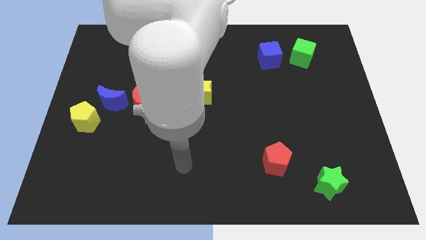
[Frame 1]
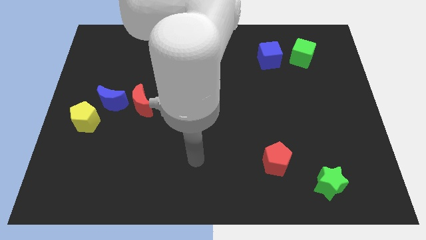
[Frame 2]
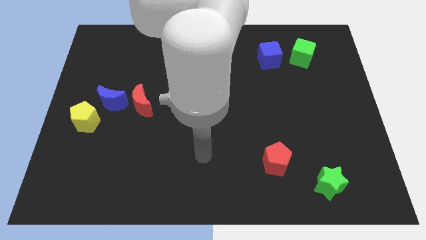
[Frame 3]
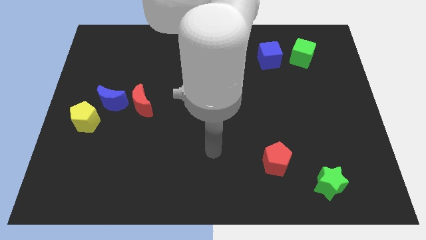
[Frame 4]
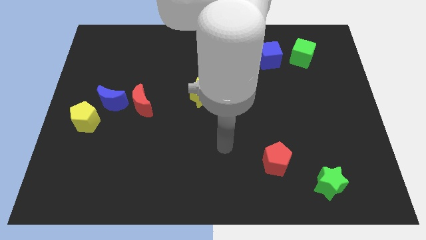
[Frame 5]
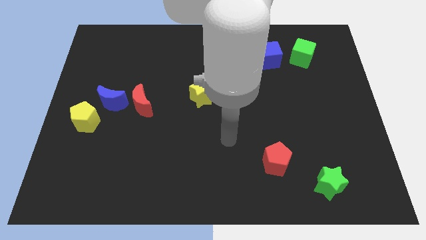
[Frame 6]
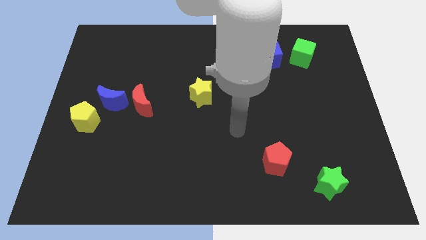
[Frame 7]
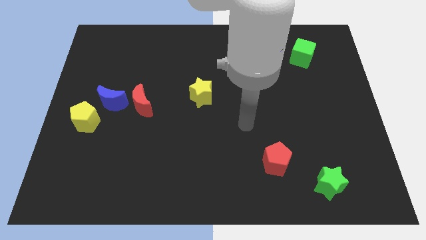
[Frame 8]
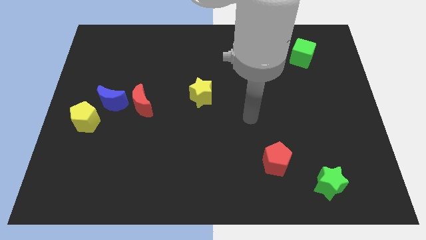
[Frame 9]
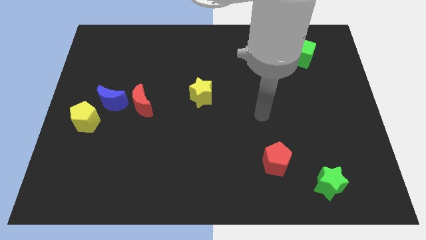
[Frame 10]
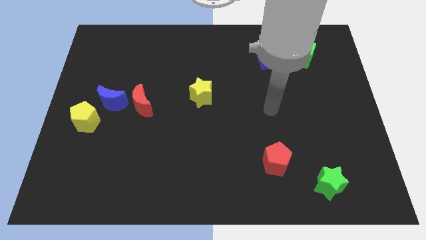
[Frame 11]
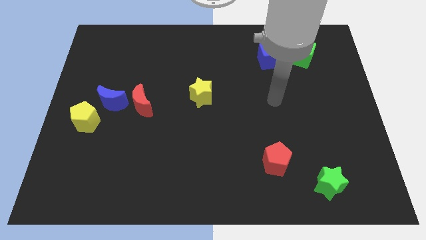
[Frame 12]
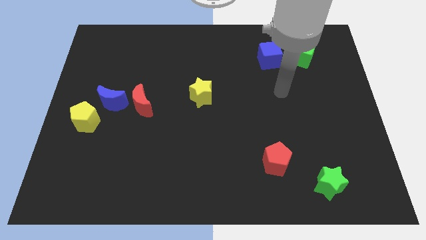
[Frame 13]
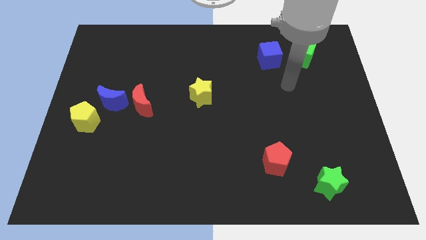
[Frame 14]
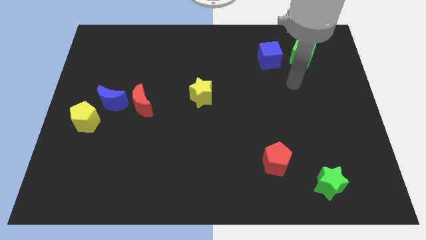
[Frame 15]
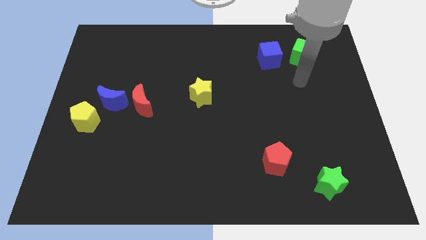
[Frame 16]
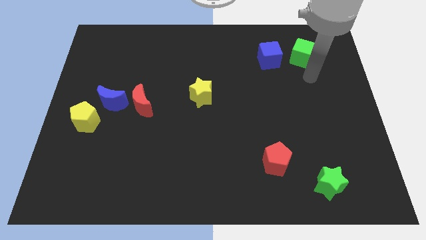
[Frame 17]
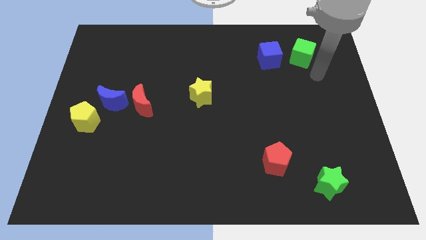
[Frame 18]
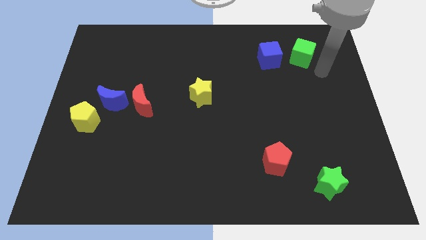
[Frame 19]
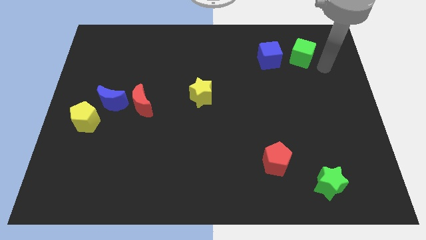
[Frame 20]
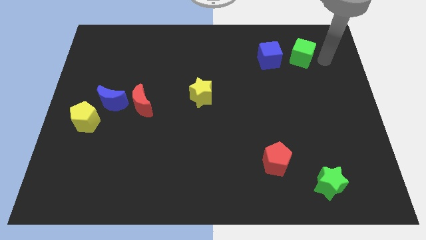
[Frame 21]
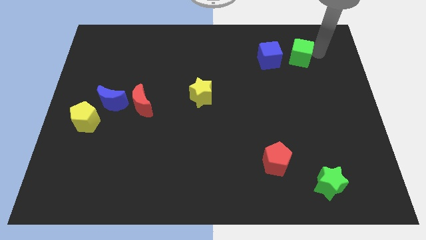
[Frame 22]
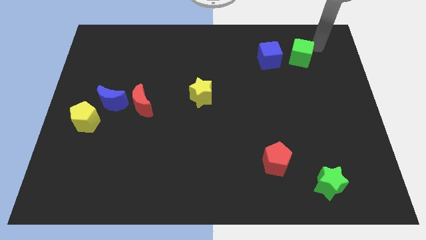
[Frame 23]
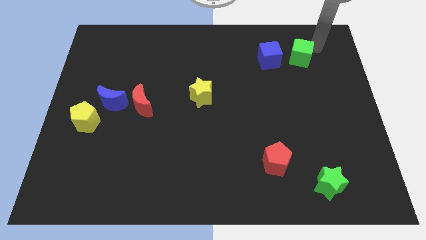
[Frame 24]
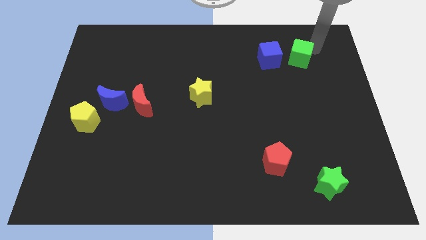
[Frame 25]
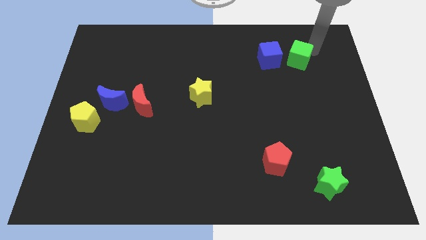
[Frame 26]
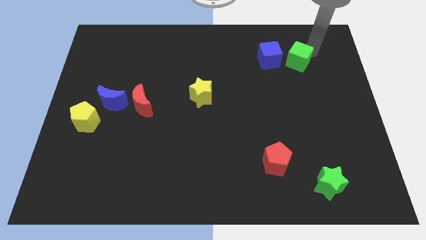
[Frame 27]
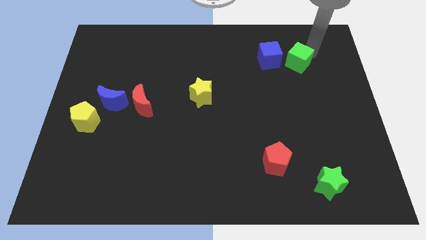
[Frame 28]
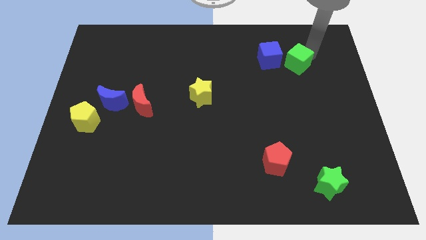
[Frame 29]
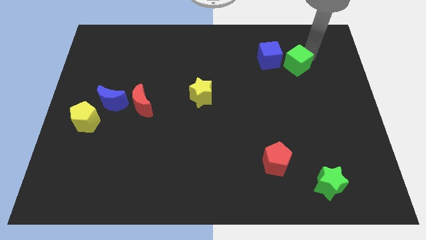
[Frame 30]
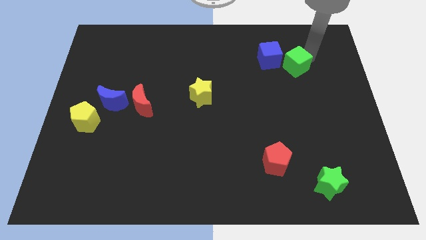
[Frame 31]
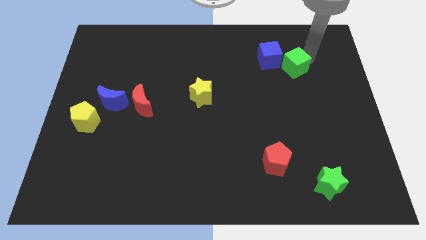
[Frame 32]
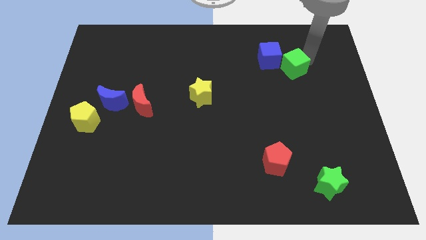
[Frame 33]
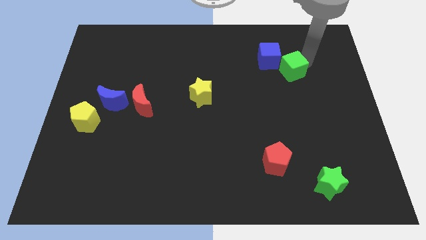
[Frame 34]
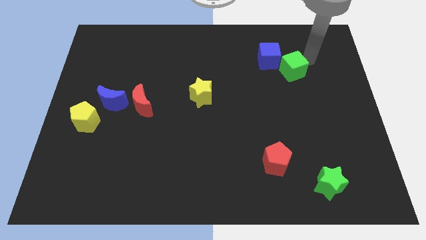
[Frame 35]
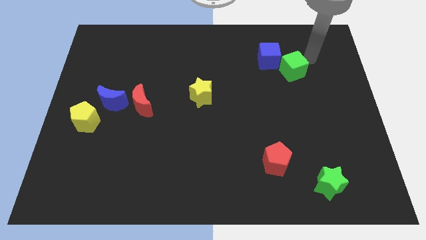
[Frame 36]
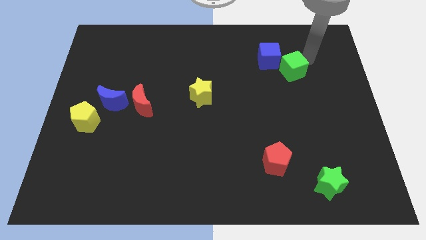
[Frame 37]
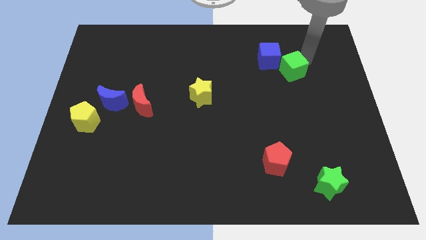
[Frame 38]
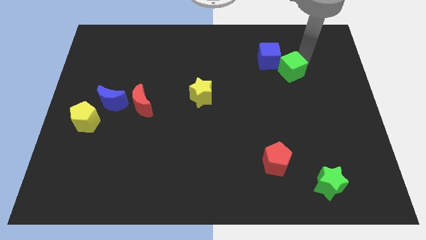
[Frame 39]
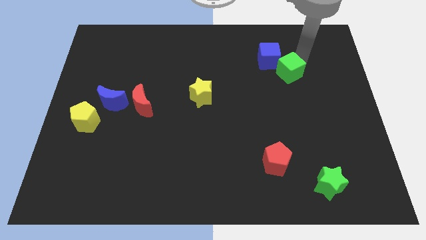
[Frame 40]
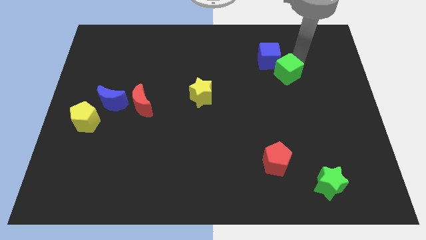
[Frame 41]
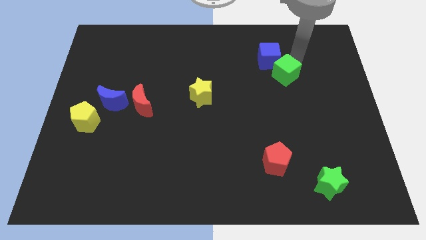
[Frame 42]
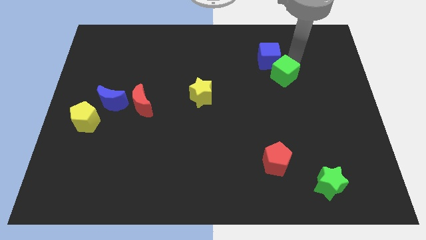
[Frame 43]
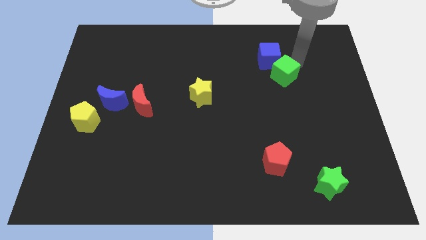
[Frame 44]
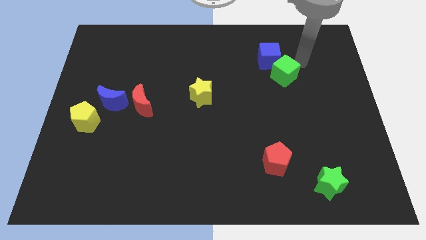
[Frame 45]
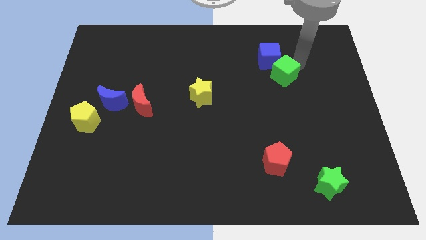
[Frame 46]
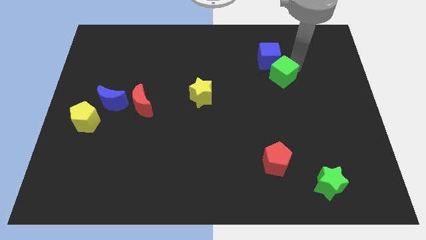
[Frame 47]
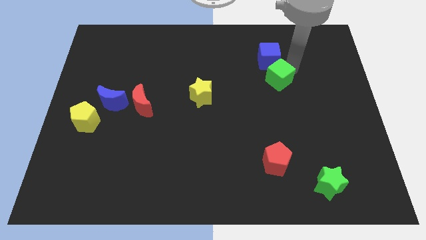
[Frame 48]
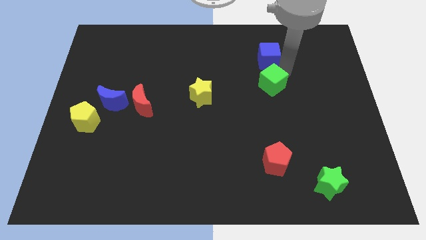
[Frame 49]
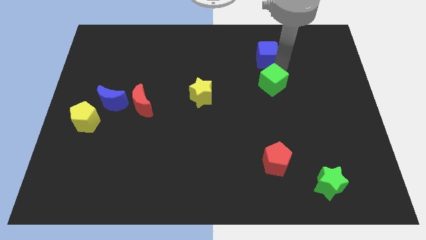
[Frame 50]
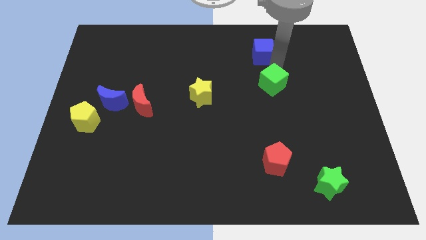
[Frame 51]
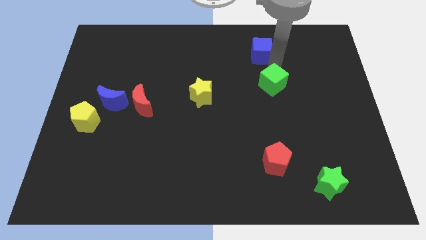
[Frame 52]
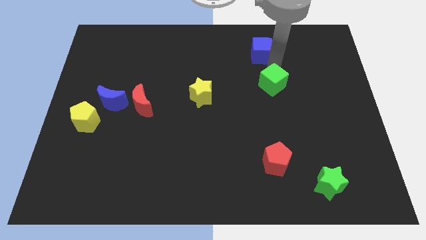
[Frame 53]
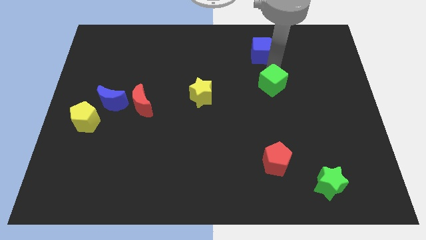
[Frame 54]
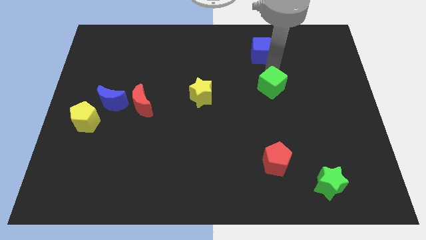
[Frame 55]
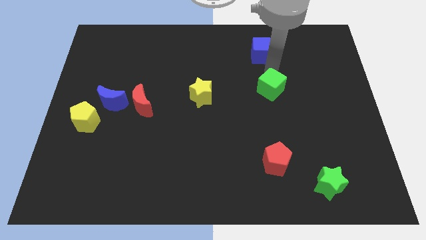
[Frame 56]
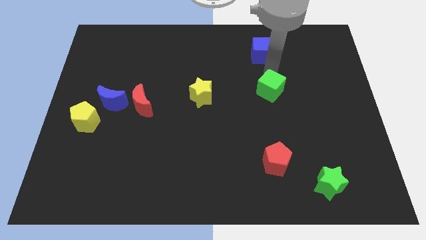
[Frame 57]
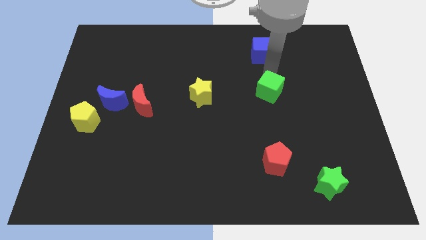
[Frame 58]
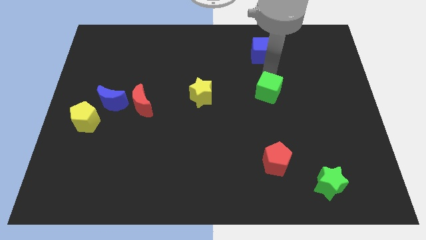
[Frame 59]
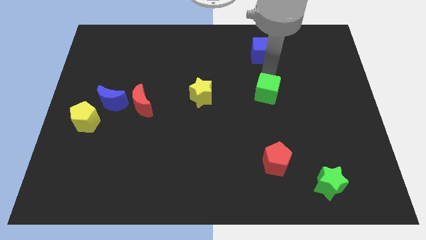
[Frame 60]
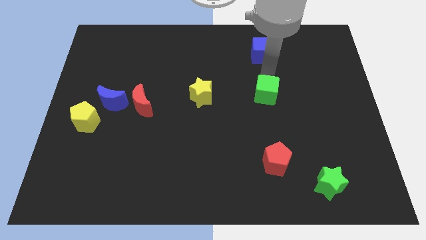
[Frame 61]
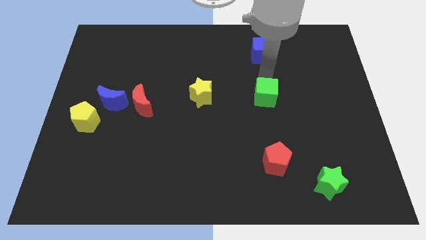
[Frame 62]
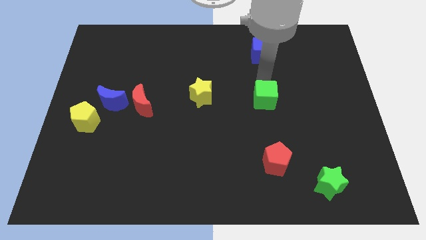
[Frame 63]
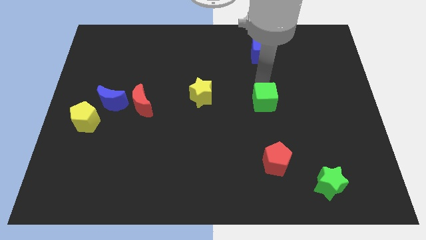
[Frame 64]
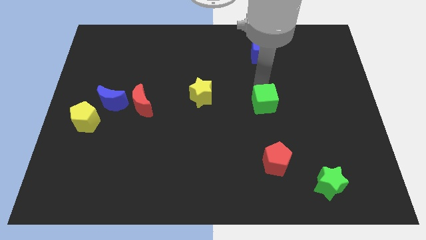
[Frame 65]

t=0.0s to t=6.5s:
push the green cube above the red pentagon

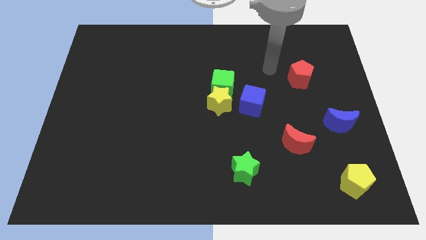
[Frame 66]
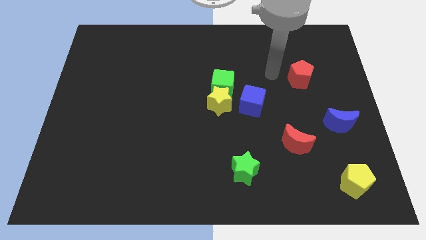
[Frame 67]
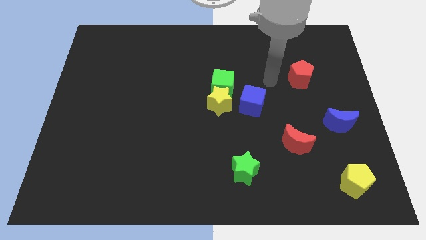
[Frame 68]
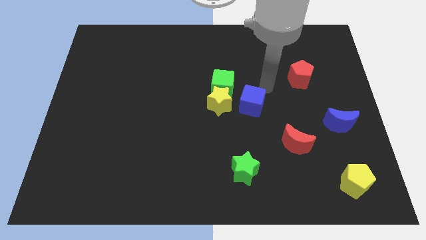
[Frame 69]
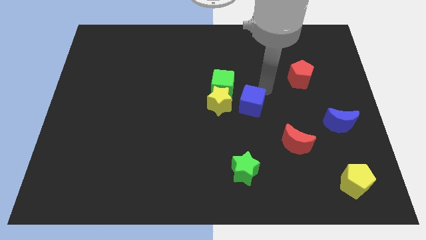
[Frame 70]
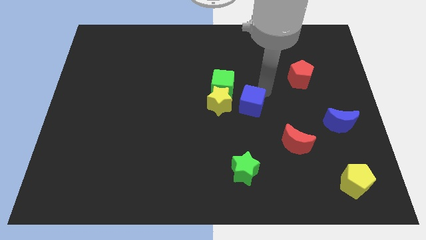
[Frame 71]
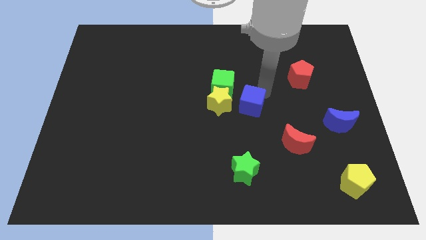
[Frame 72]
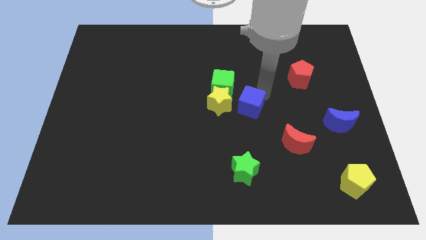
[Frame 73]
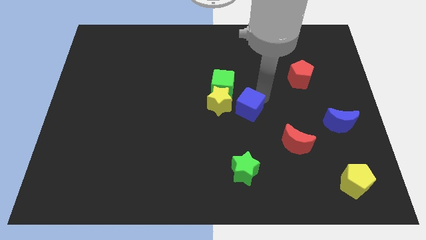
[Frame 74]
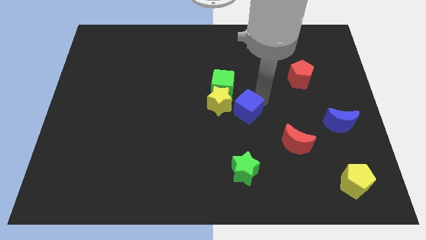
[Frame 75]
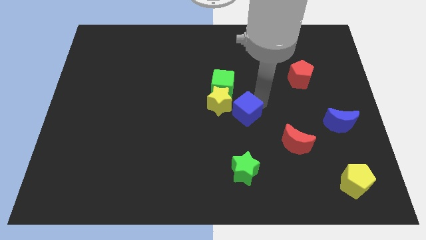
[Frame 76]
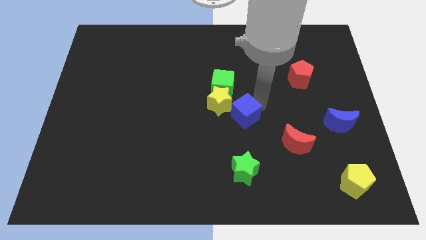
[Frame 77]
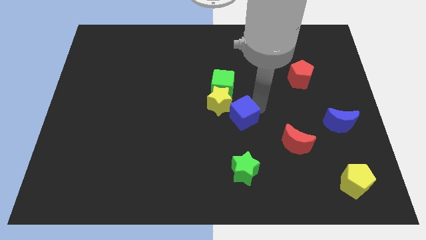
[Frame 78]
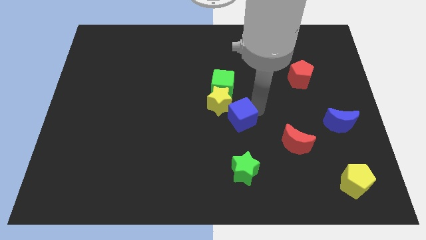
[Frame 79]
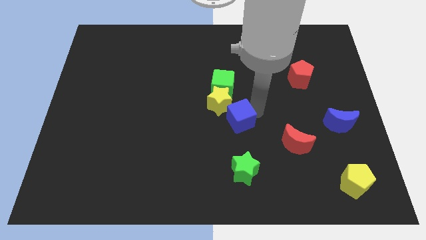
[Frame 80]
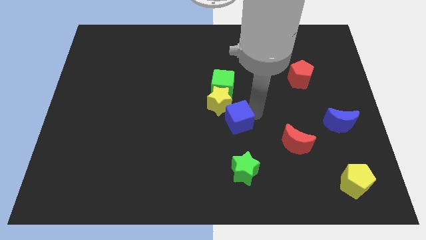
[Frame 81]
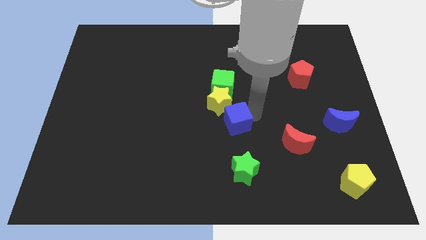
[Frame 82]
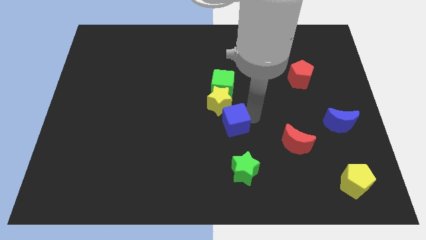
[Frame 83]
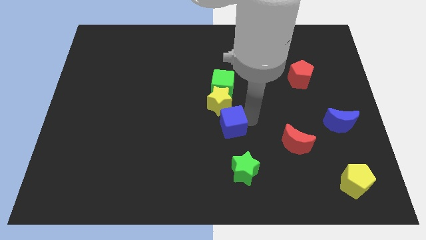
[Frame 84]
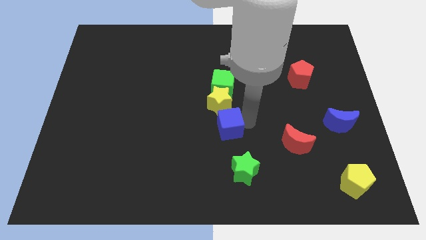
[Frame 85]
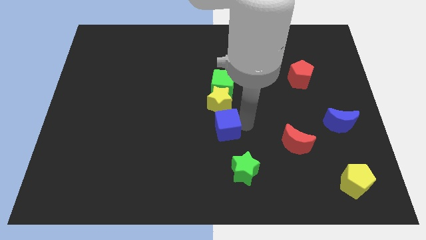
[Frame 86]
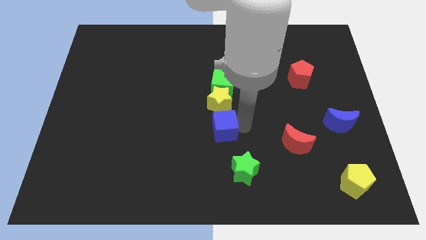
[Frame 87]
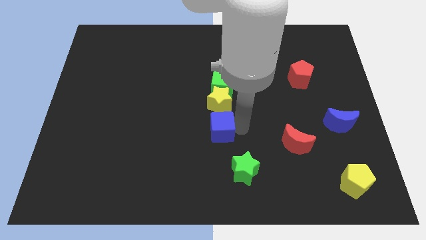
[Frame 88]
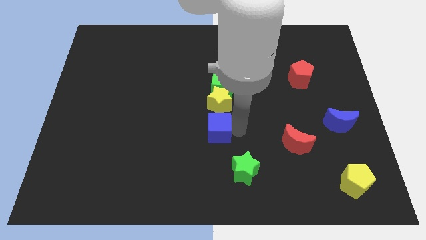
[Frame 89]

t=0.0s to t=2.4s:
slide the blue cube to the bottom left side of the yellow star
